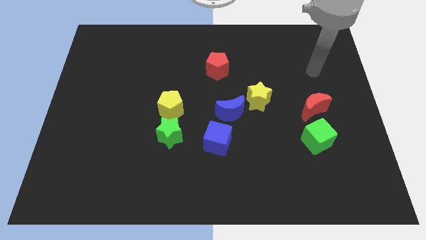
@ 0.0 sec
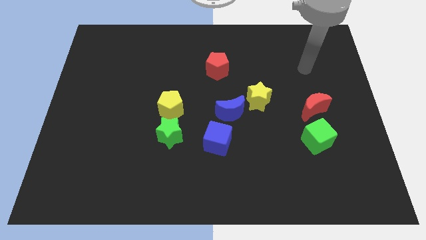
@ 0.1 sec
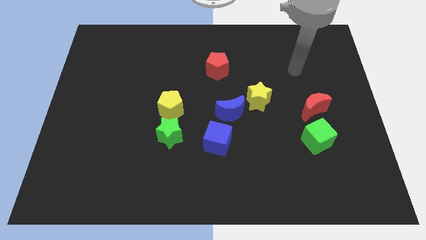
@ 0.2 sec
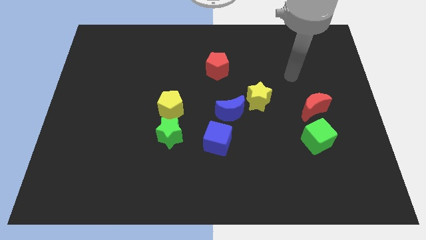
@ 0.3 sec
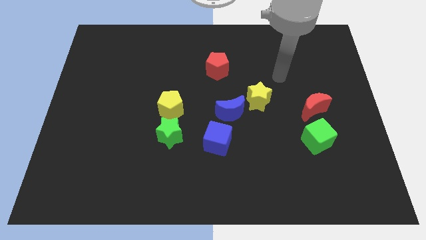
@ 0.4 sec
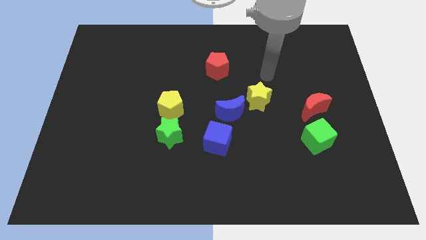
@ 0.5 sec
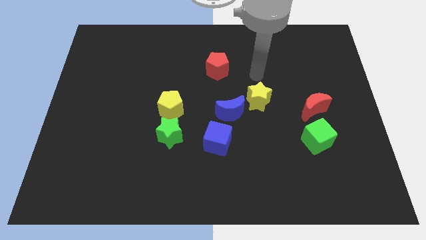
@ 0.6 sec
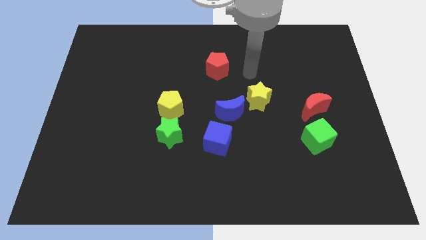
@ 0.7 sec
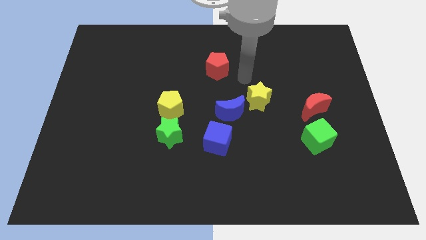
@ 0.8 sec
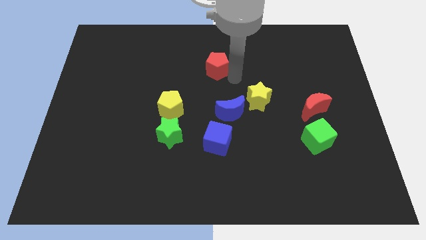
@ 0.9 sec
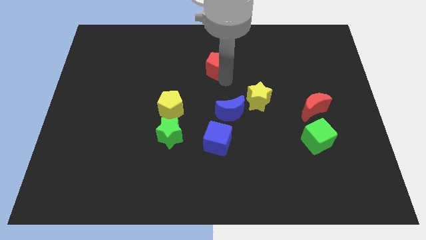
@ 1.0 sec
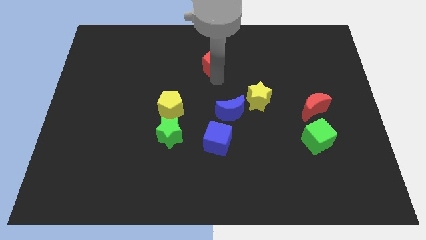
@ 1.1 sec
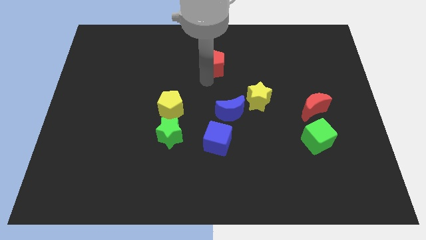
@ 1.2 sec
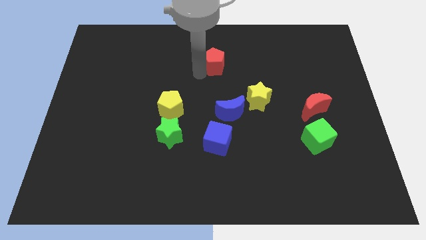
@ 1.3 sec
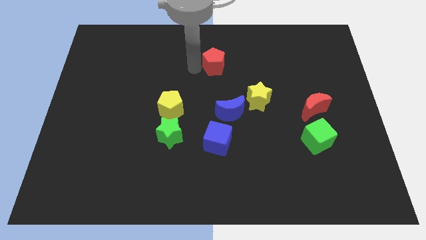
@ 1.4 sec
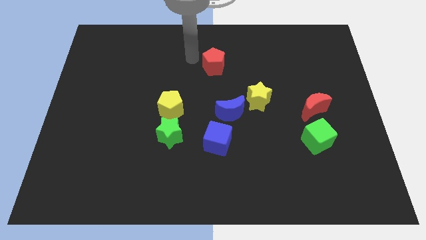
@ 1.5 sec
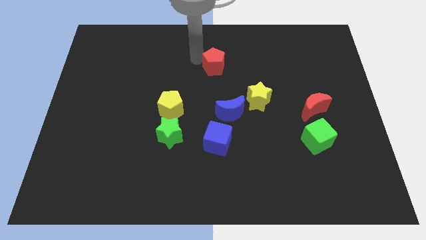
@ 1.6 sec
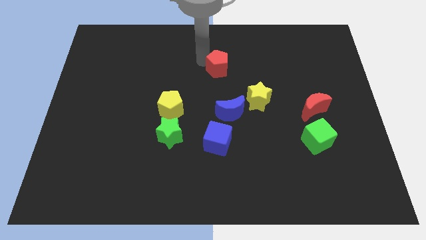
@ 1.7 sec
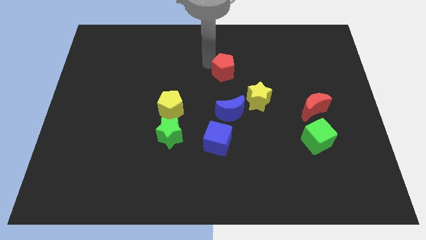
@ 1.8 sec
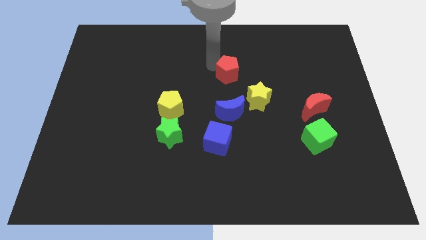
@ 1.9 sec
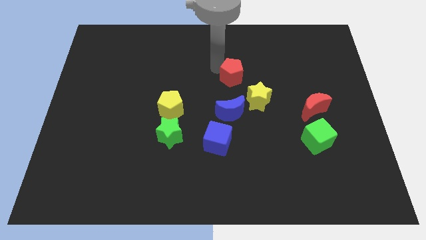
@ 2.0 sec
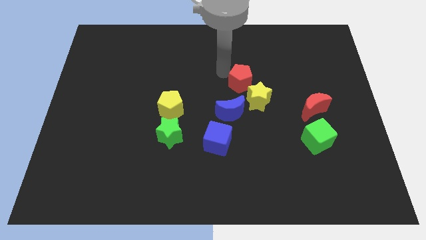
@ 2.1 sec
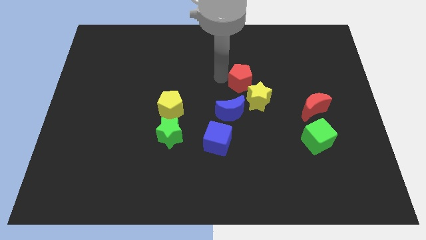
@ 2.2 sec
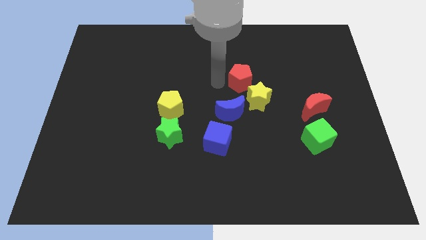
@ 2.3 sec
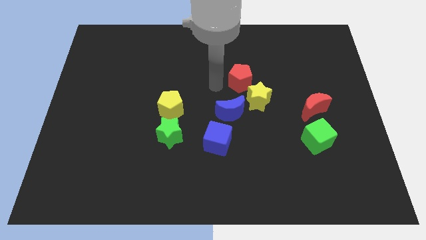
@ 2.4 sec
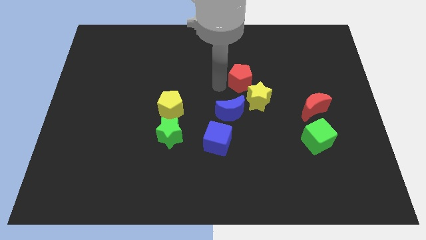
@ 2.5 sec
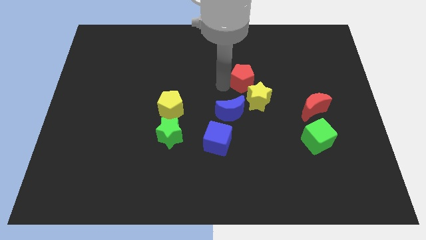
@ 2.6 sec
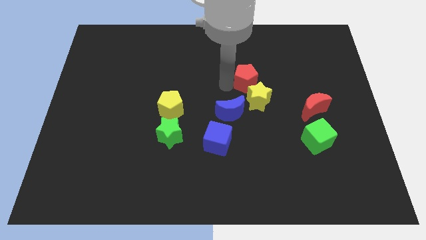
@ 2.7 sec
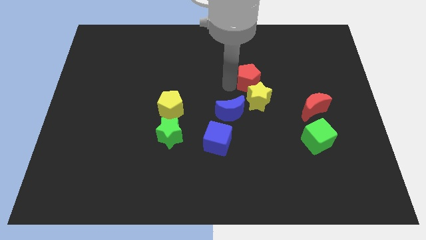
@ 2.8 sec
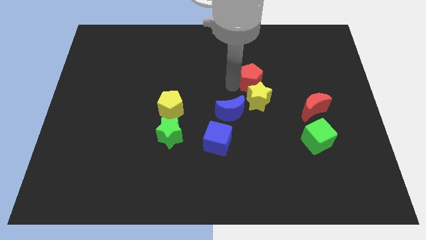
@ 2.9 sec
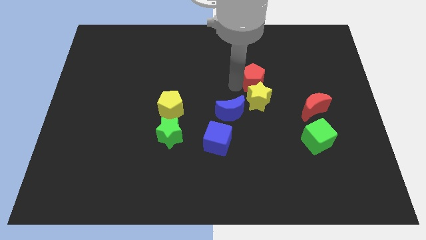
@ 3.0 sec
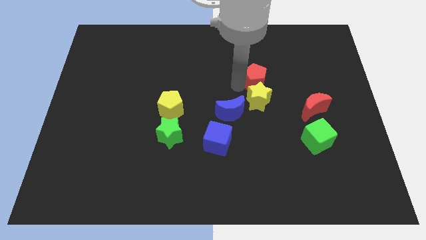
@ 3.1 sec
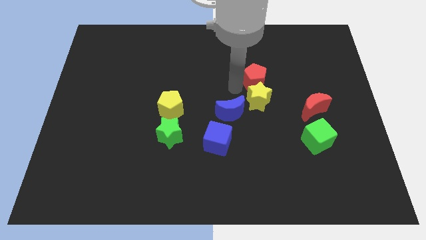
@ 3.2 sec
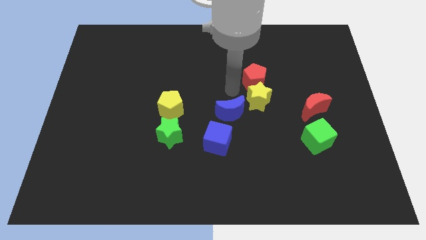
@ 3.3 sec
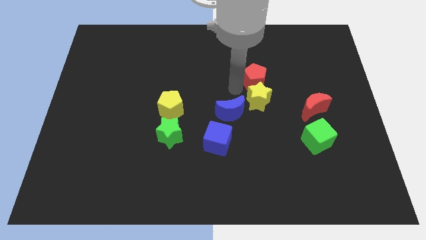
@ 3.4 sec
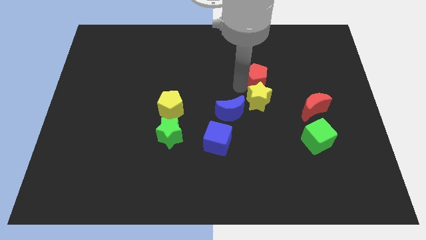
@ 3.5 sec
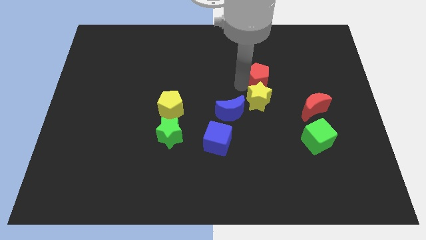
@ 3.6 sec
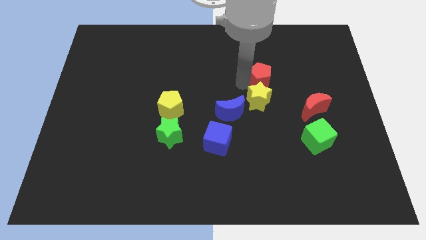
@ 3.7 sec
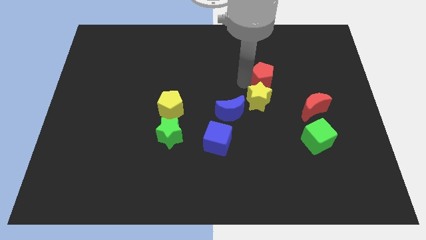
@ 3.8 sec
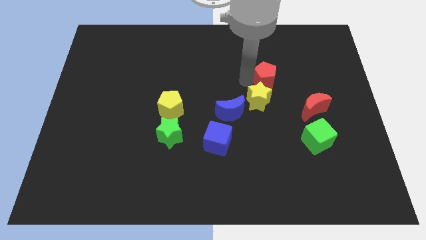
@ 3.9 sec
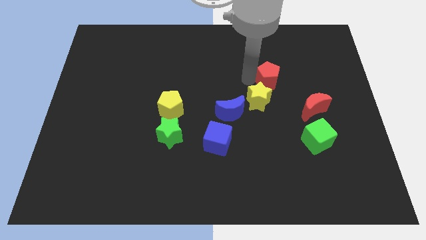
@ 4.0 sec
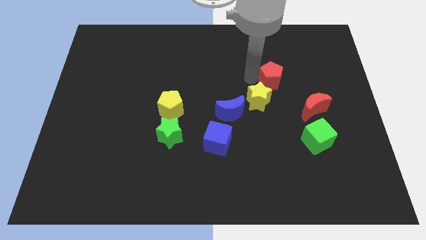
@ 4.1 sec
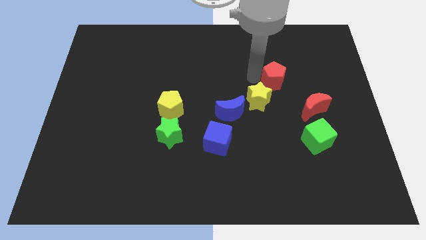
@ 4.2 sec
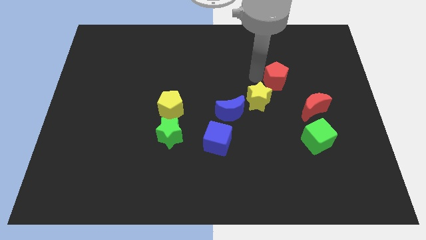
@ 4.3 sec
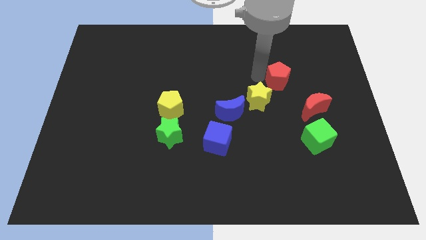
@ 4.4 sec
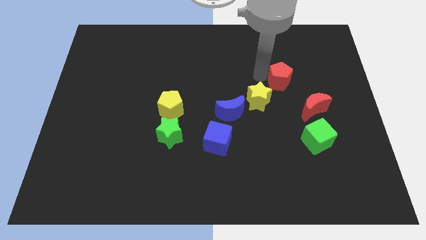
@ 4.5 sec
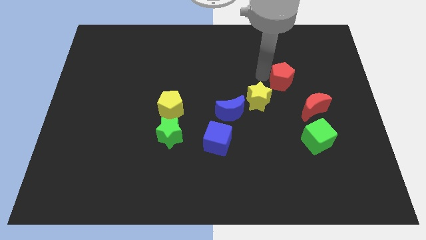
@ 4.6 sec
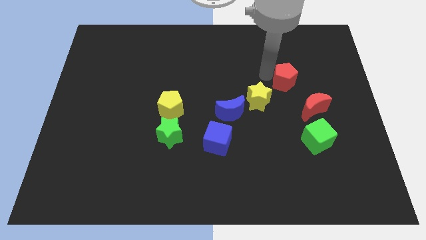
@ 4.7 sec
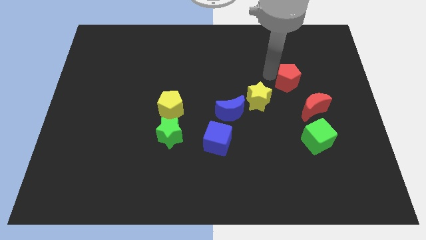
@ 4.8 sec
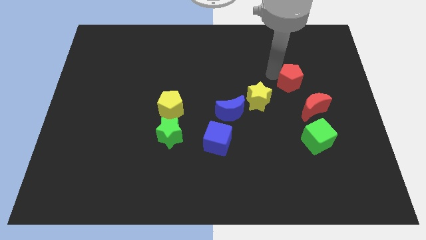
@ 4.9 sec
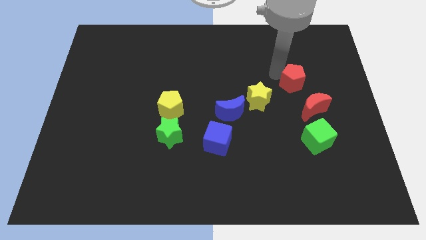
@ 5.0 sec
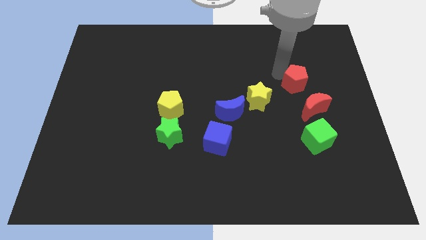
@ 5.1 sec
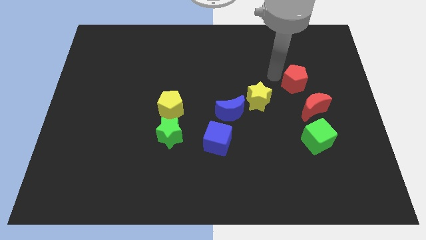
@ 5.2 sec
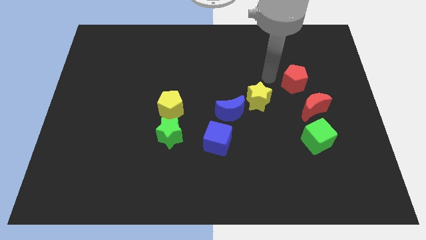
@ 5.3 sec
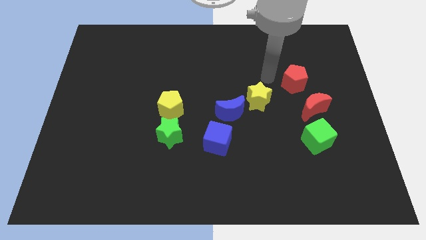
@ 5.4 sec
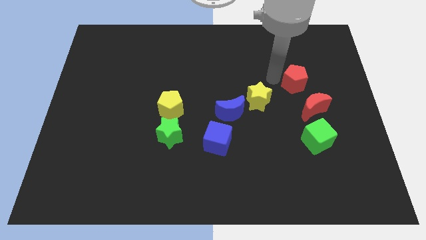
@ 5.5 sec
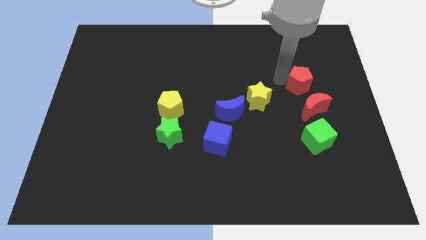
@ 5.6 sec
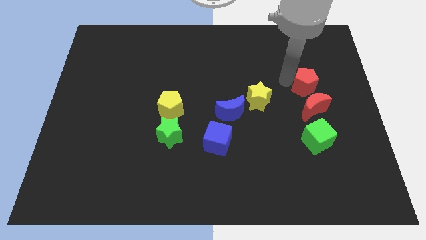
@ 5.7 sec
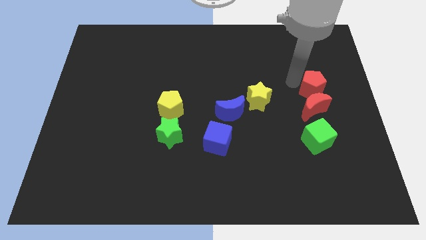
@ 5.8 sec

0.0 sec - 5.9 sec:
slide the red pentagon to the top right of the red moon

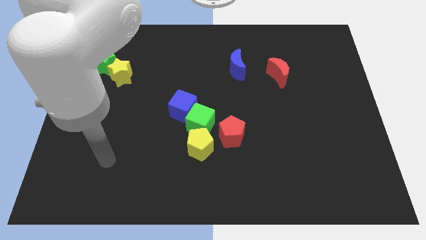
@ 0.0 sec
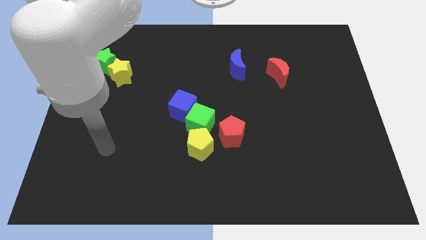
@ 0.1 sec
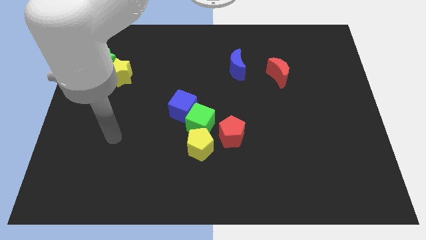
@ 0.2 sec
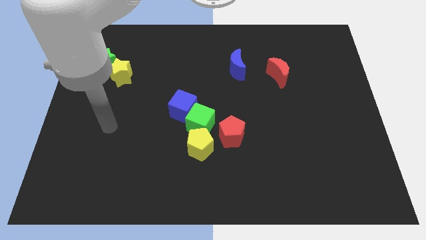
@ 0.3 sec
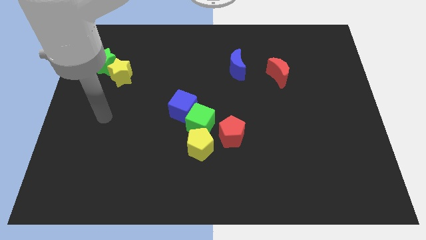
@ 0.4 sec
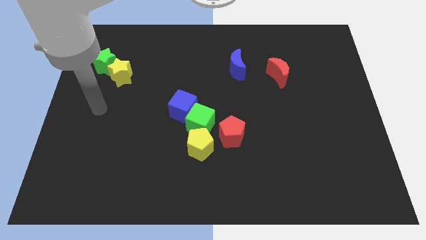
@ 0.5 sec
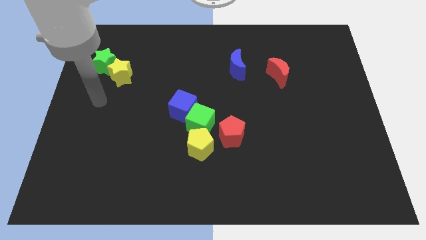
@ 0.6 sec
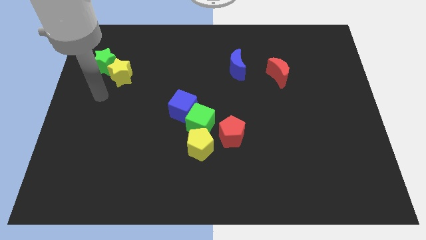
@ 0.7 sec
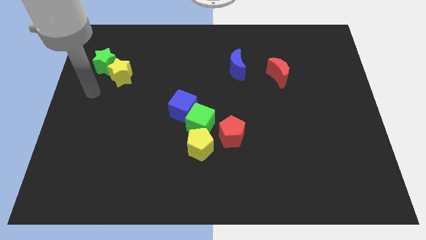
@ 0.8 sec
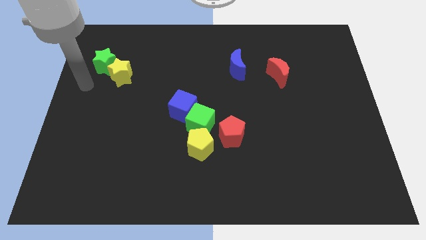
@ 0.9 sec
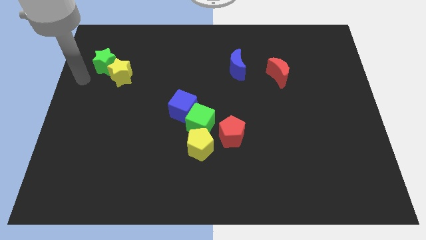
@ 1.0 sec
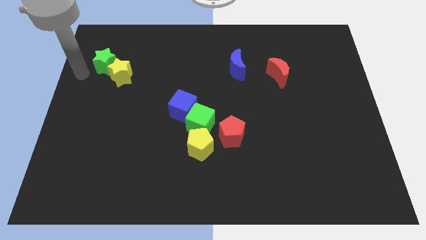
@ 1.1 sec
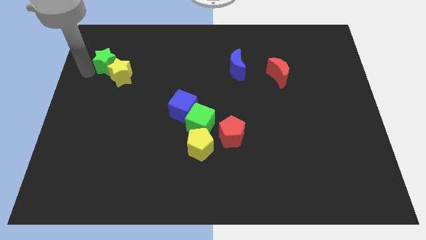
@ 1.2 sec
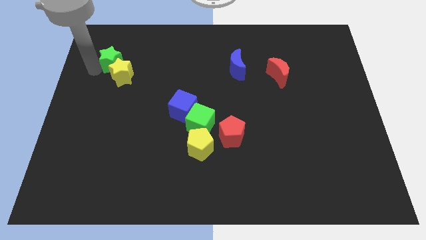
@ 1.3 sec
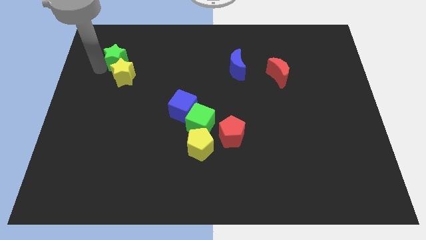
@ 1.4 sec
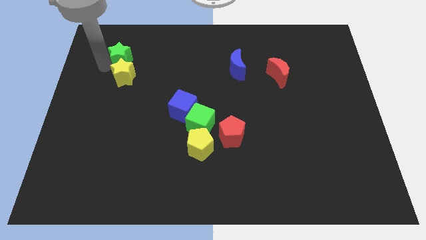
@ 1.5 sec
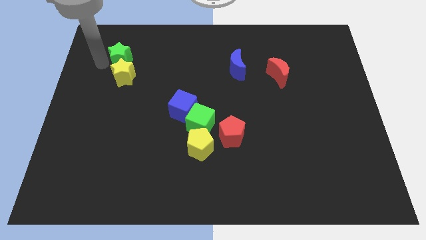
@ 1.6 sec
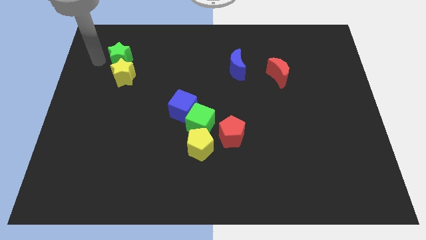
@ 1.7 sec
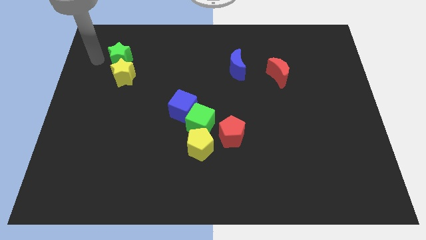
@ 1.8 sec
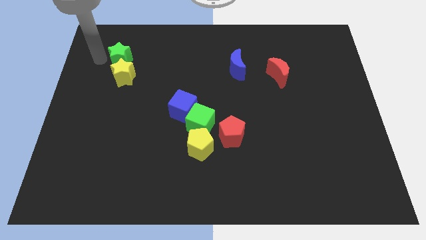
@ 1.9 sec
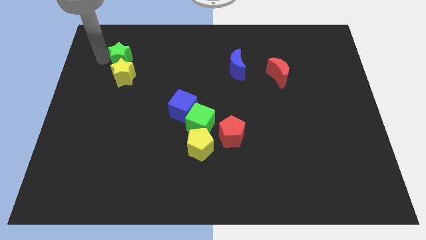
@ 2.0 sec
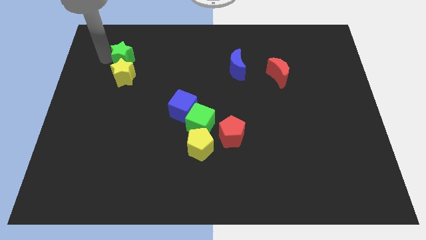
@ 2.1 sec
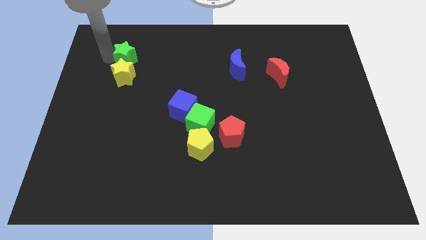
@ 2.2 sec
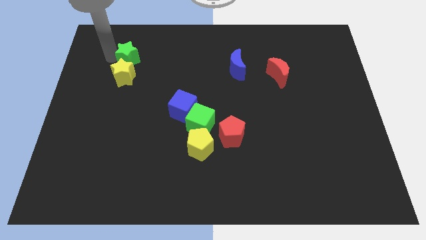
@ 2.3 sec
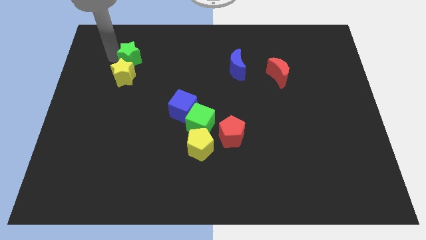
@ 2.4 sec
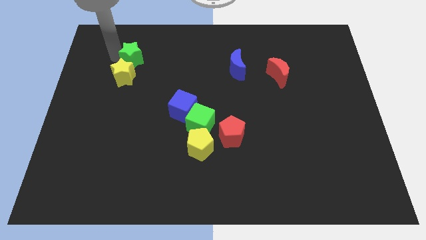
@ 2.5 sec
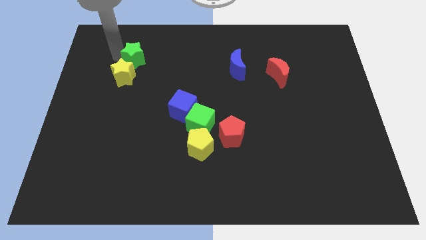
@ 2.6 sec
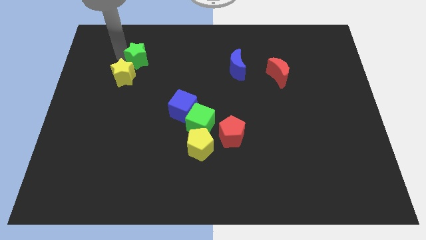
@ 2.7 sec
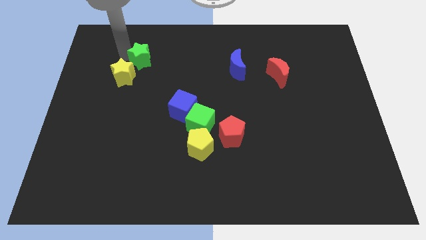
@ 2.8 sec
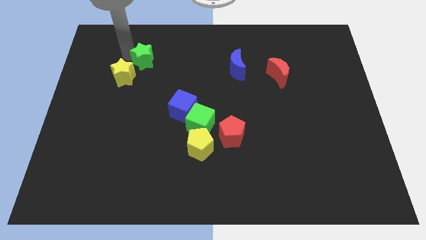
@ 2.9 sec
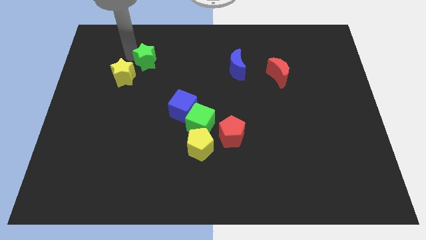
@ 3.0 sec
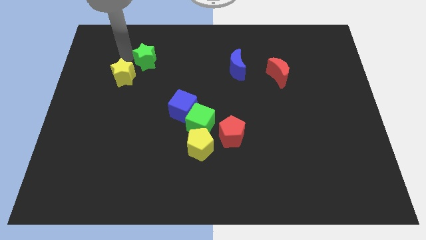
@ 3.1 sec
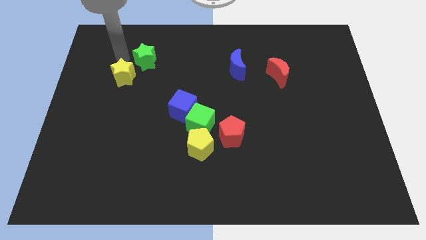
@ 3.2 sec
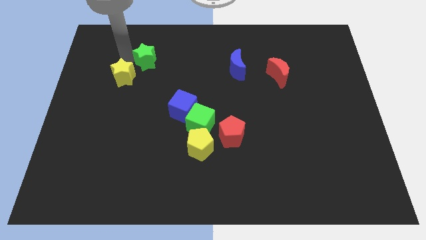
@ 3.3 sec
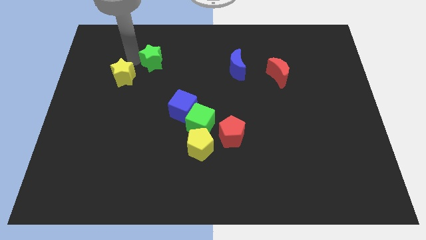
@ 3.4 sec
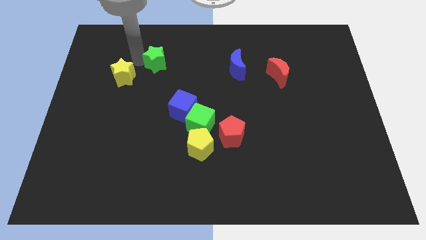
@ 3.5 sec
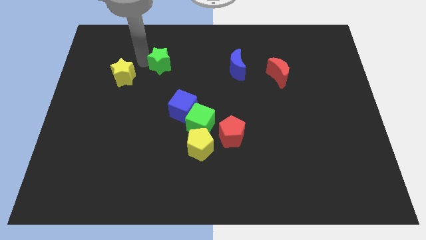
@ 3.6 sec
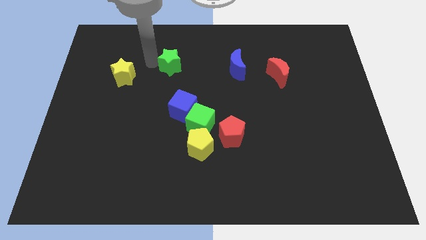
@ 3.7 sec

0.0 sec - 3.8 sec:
put the green star above the blue cube
